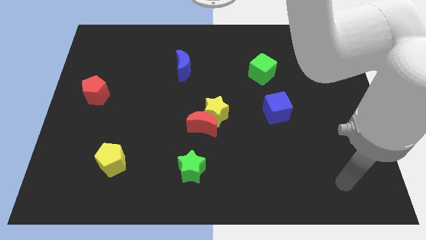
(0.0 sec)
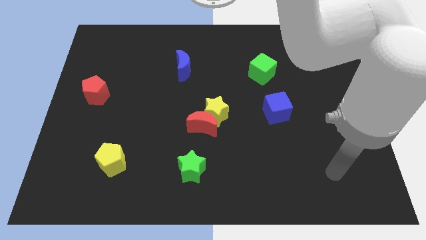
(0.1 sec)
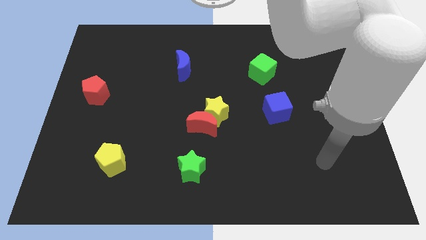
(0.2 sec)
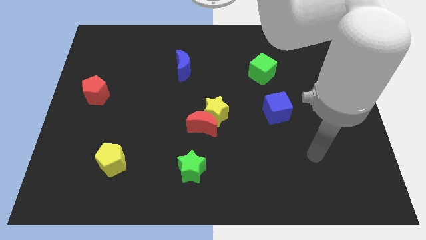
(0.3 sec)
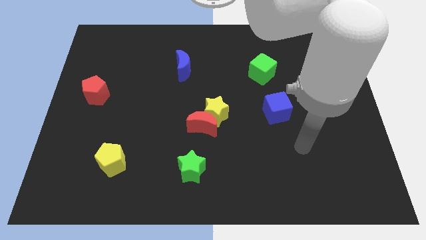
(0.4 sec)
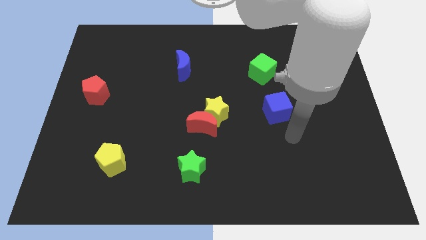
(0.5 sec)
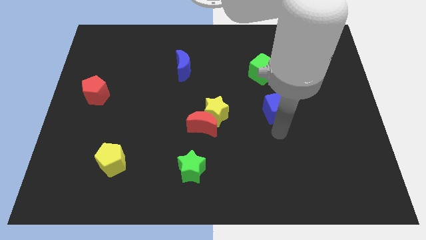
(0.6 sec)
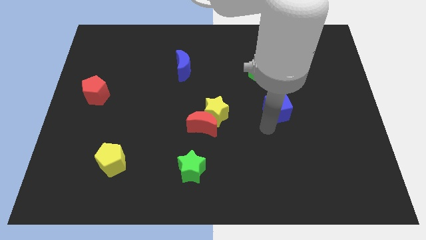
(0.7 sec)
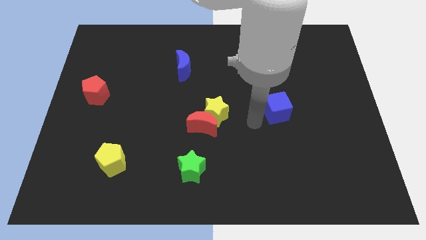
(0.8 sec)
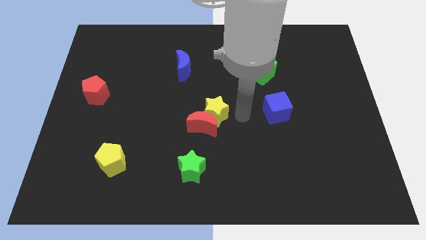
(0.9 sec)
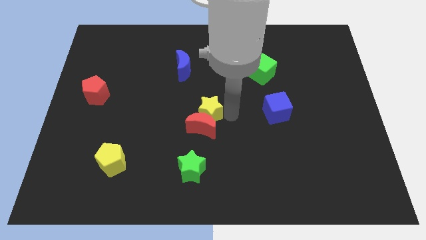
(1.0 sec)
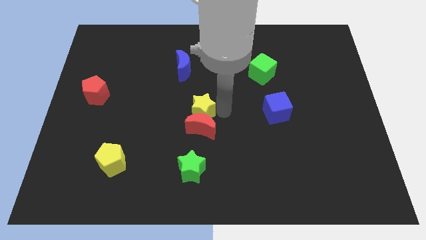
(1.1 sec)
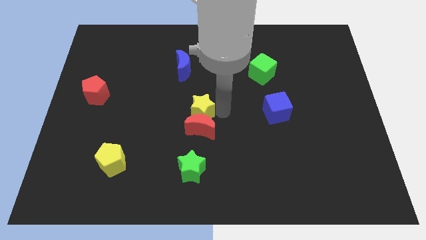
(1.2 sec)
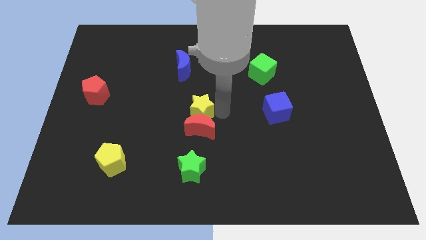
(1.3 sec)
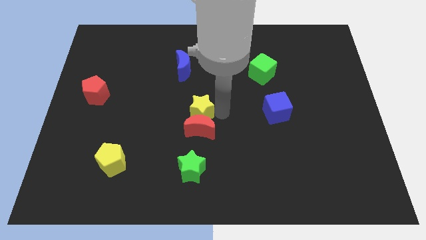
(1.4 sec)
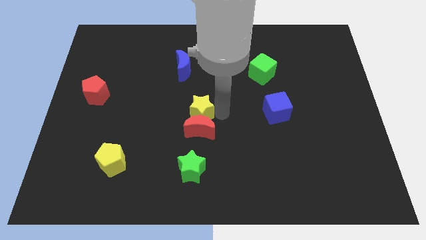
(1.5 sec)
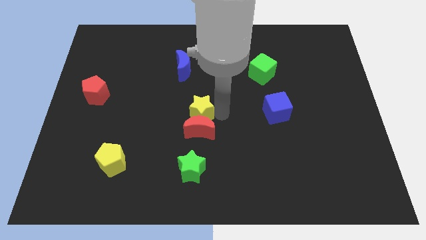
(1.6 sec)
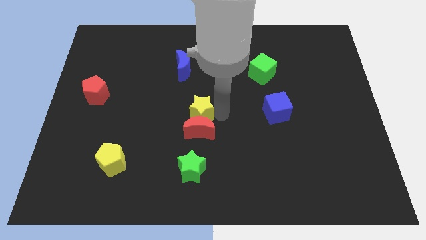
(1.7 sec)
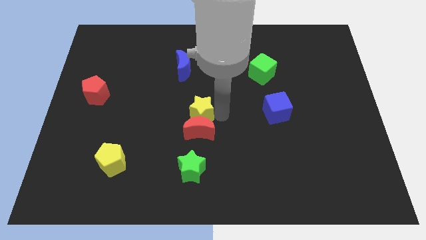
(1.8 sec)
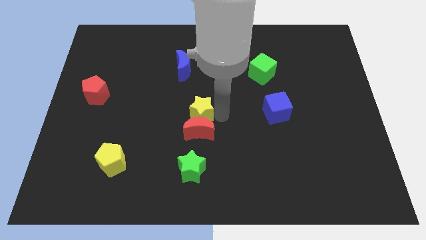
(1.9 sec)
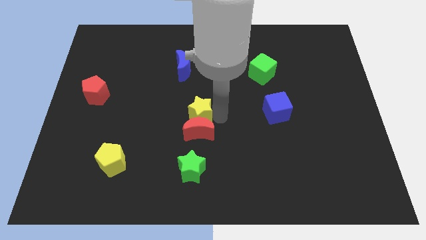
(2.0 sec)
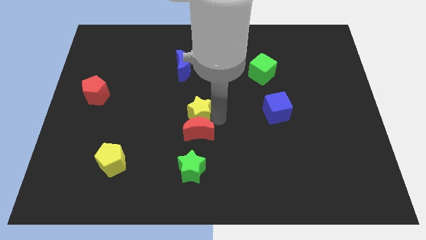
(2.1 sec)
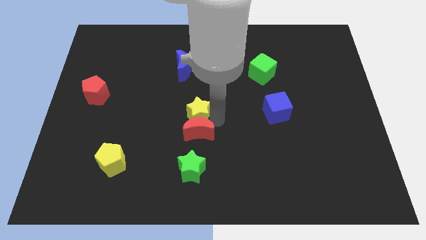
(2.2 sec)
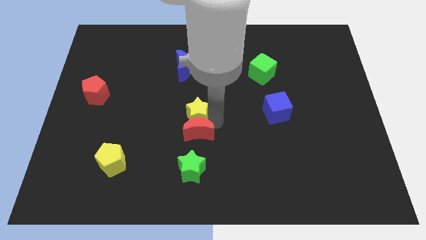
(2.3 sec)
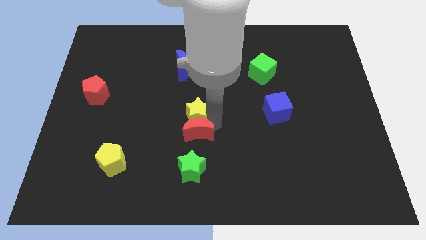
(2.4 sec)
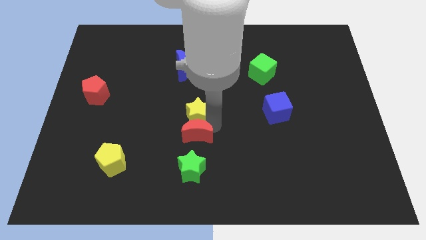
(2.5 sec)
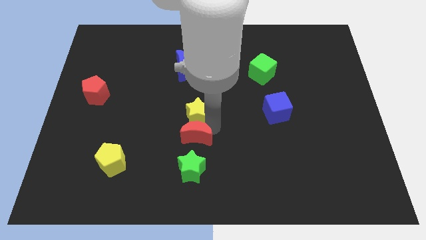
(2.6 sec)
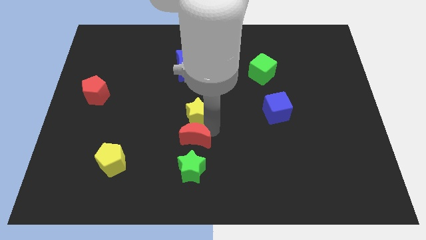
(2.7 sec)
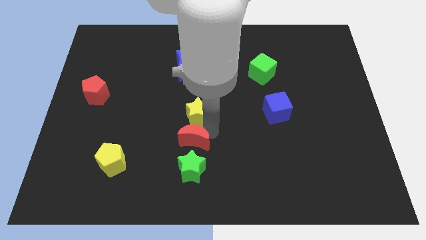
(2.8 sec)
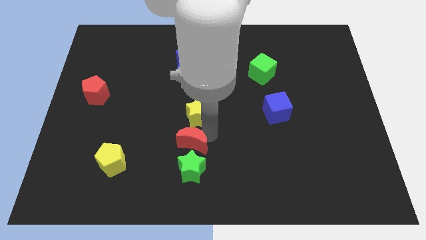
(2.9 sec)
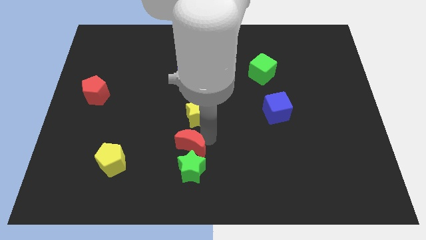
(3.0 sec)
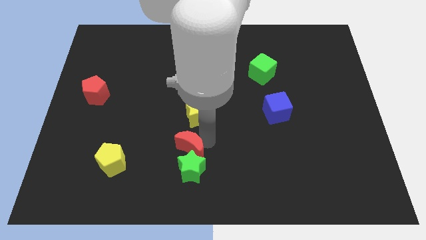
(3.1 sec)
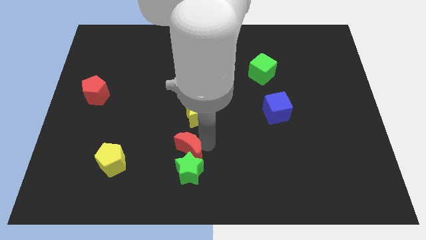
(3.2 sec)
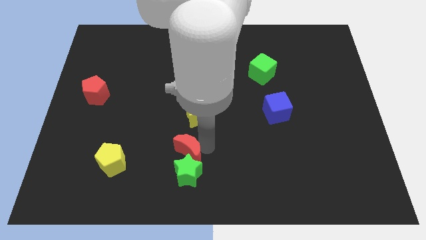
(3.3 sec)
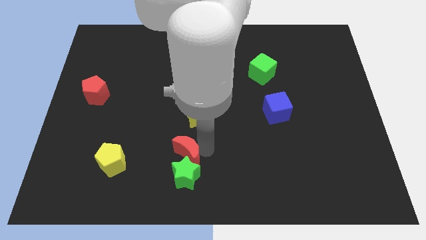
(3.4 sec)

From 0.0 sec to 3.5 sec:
move the red moon a bit downwards and then to the left

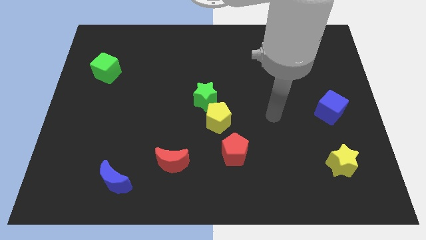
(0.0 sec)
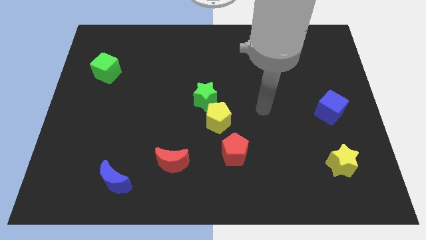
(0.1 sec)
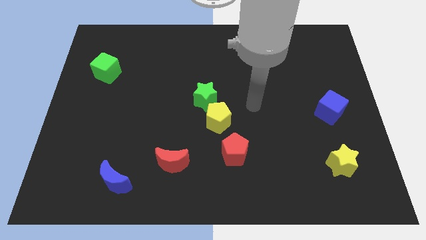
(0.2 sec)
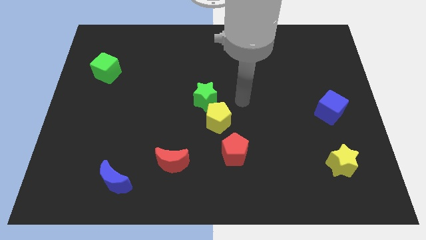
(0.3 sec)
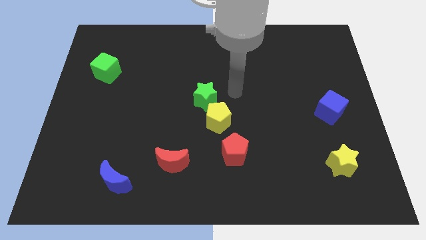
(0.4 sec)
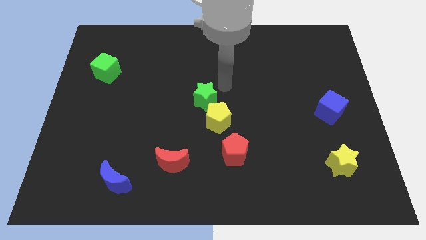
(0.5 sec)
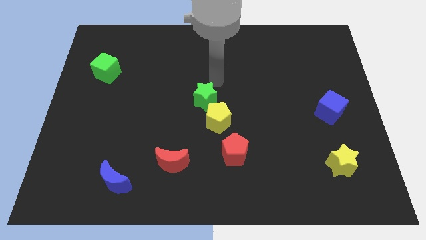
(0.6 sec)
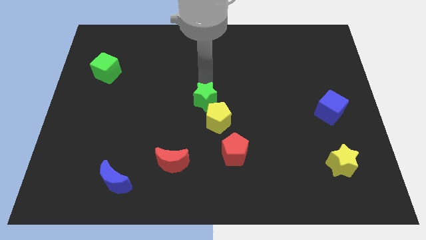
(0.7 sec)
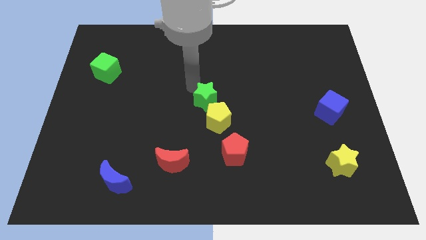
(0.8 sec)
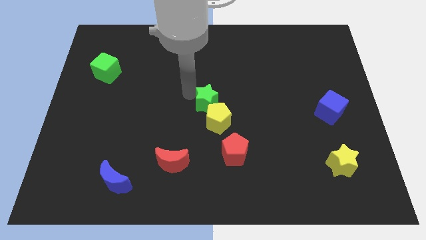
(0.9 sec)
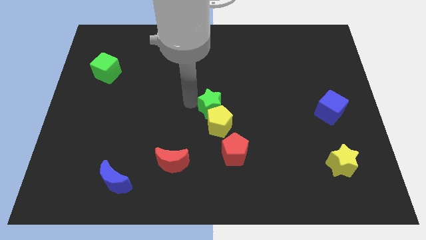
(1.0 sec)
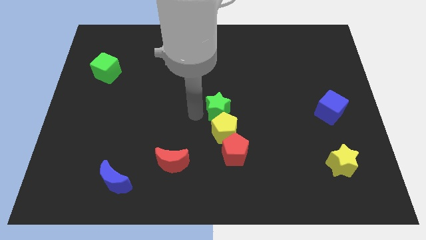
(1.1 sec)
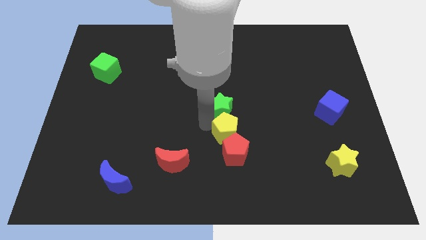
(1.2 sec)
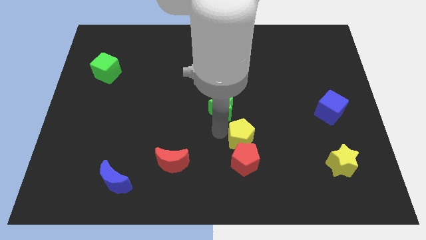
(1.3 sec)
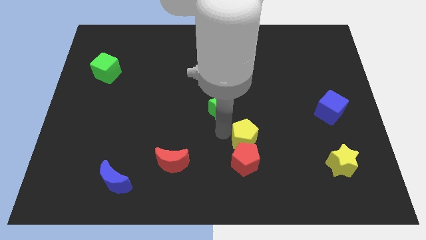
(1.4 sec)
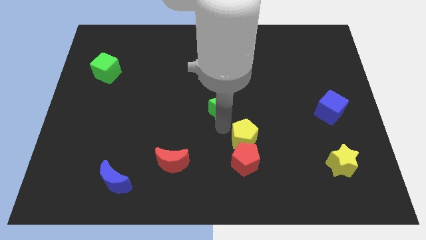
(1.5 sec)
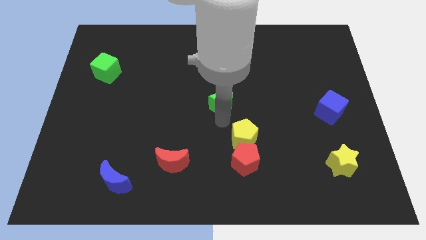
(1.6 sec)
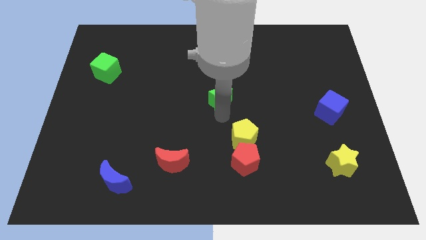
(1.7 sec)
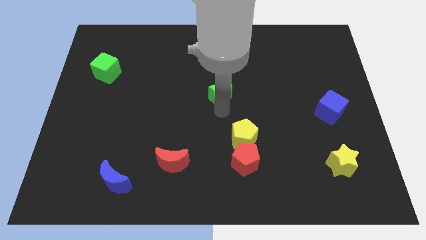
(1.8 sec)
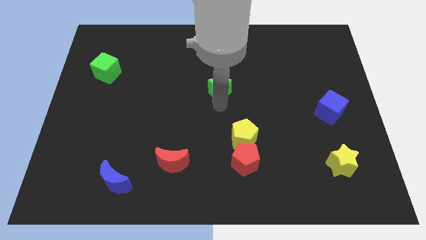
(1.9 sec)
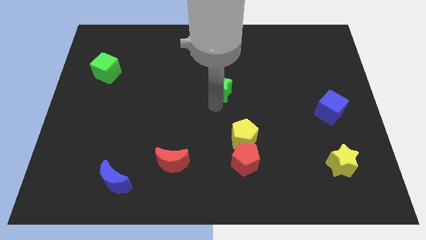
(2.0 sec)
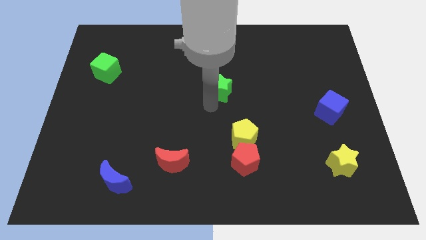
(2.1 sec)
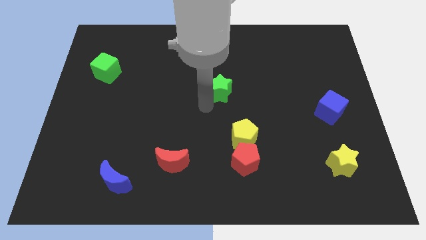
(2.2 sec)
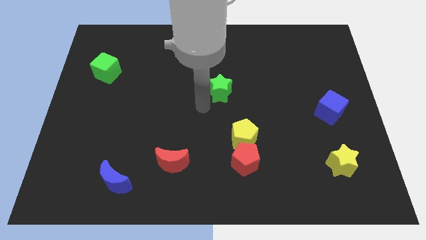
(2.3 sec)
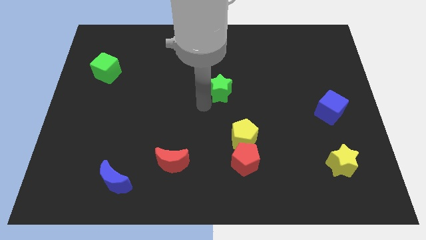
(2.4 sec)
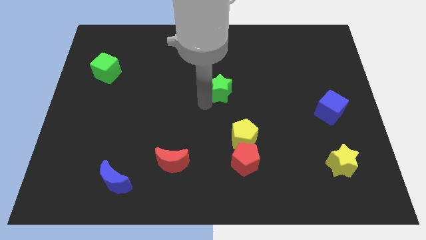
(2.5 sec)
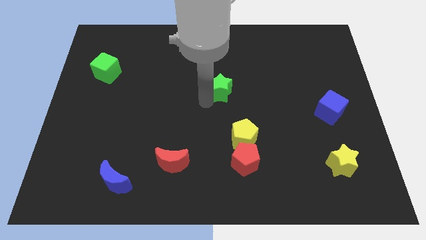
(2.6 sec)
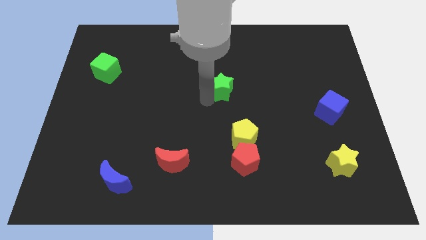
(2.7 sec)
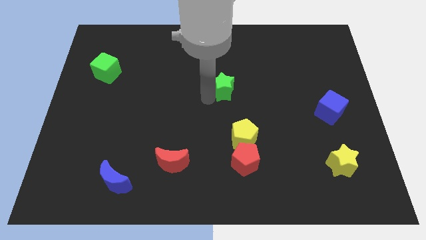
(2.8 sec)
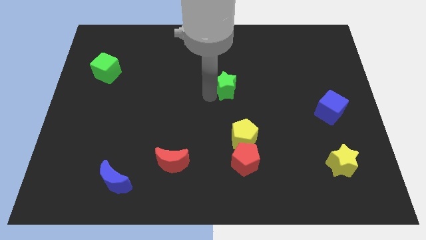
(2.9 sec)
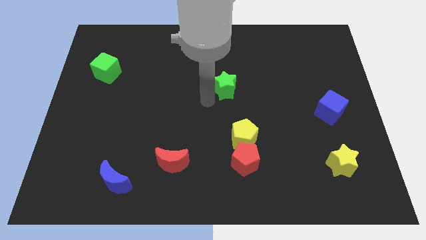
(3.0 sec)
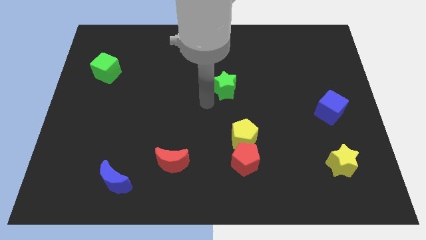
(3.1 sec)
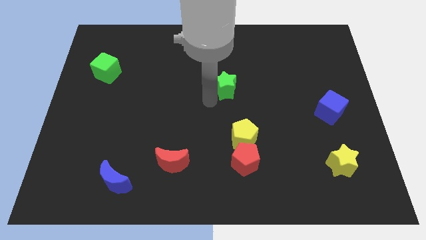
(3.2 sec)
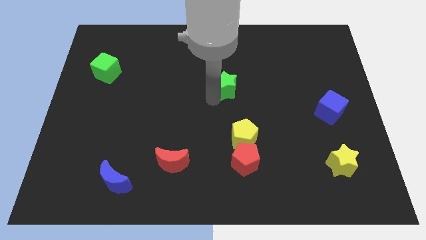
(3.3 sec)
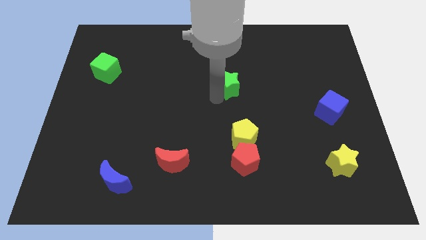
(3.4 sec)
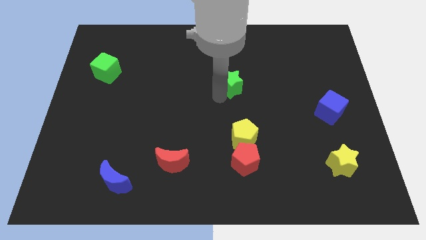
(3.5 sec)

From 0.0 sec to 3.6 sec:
slide the green star a little diagonally up and right

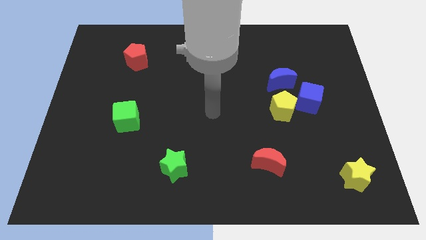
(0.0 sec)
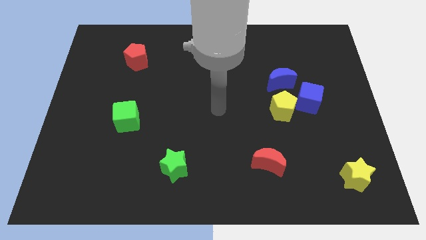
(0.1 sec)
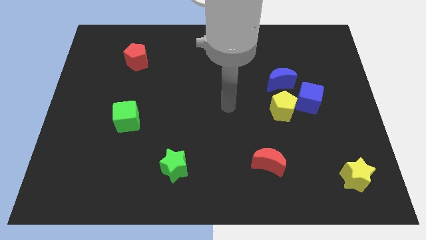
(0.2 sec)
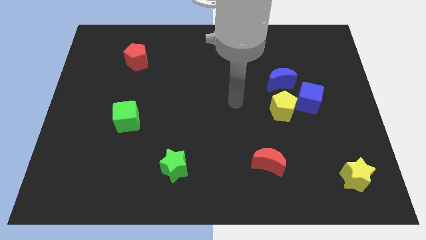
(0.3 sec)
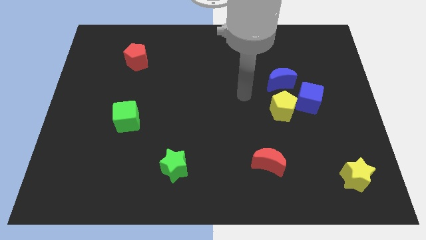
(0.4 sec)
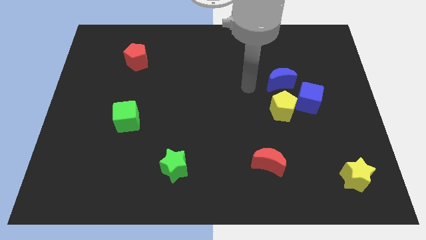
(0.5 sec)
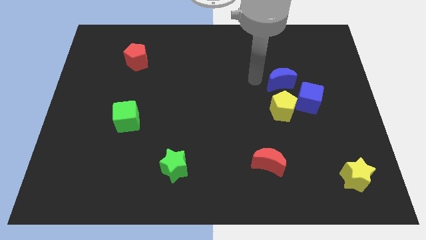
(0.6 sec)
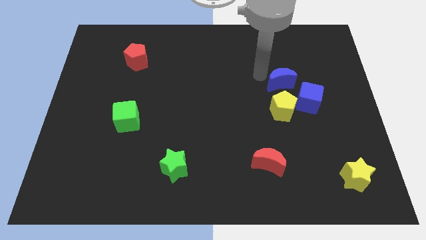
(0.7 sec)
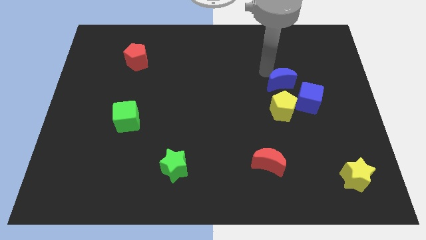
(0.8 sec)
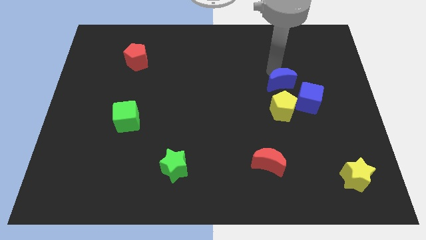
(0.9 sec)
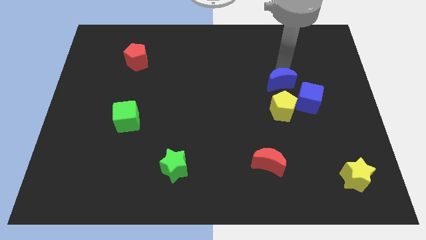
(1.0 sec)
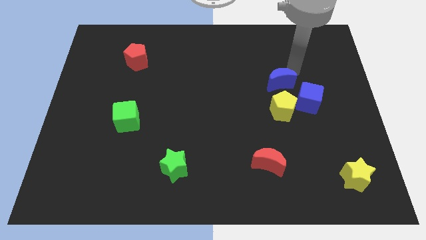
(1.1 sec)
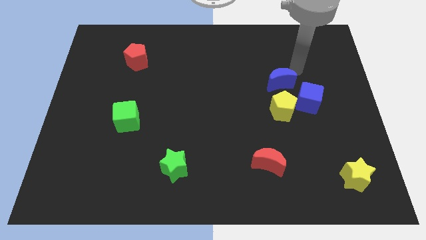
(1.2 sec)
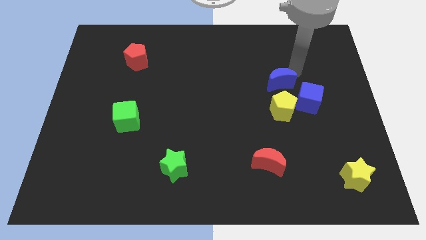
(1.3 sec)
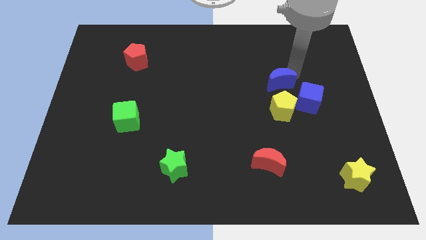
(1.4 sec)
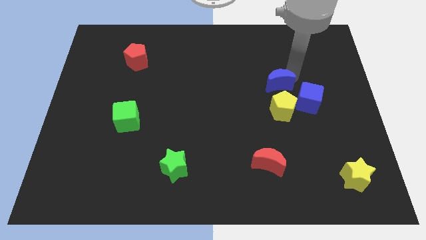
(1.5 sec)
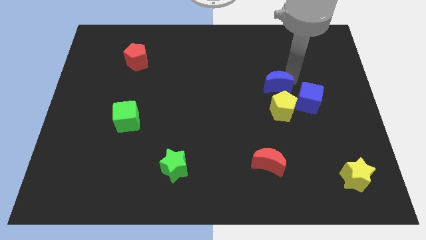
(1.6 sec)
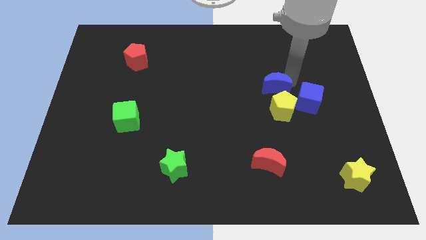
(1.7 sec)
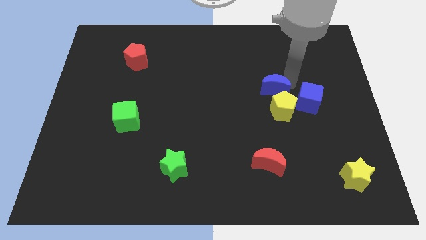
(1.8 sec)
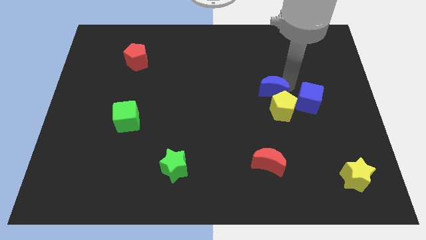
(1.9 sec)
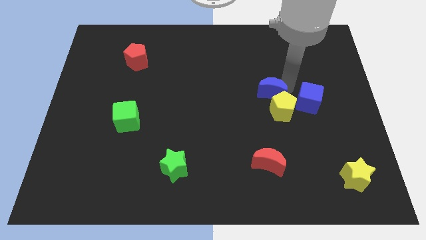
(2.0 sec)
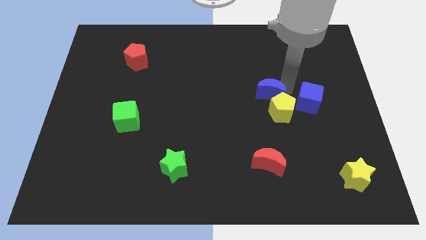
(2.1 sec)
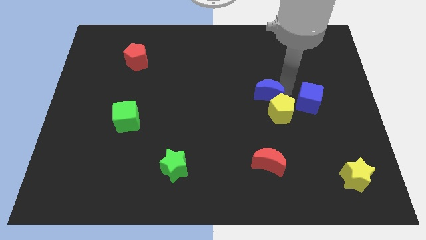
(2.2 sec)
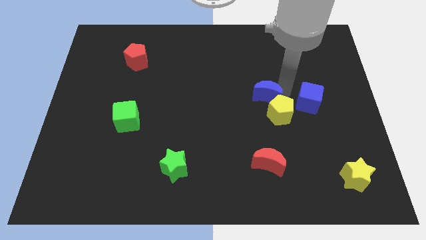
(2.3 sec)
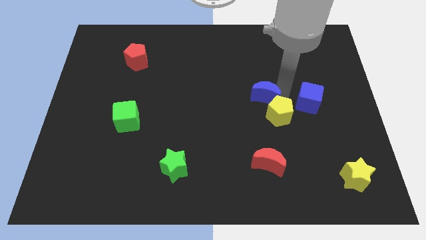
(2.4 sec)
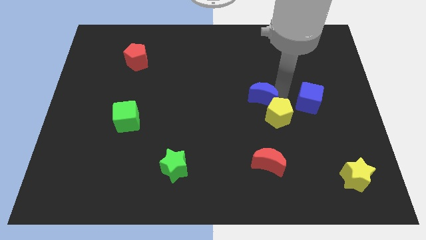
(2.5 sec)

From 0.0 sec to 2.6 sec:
slightly slide the blue moon down and to the left
